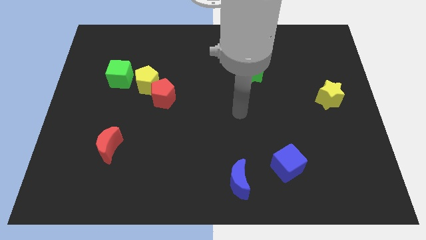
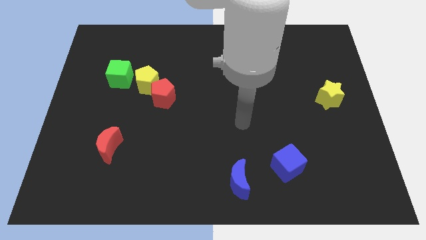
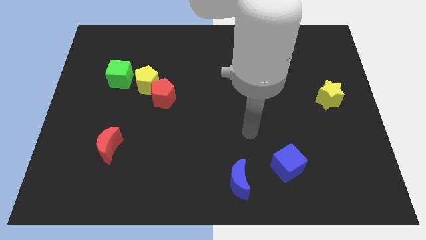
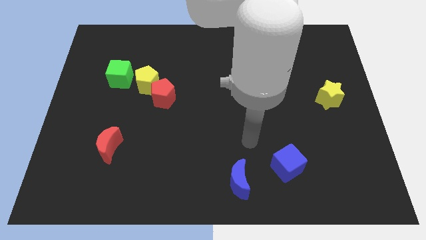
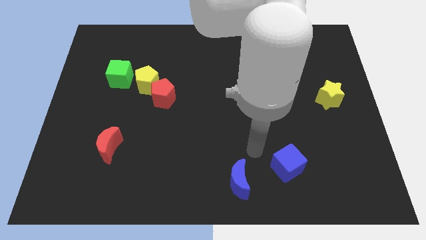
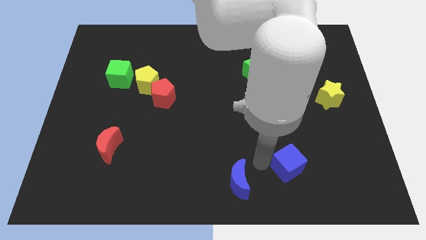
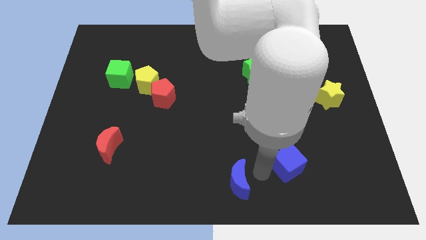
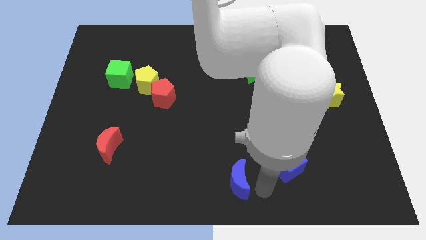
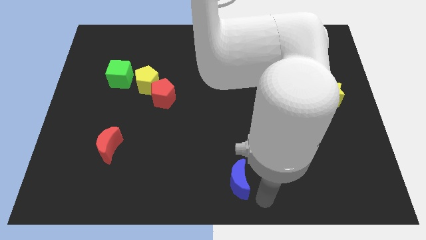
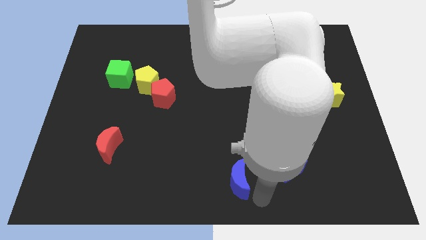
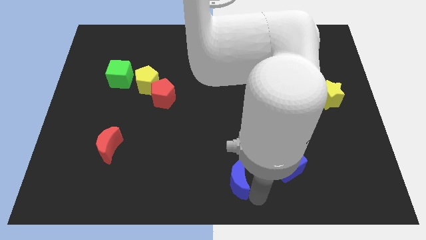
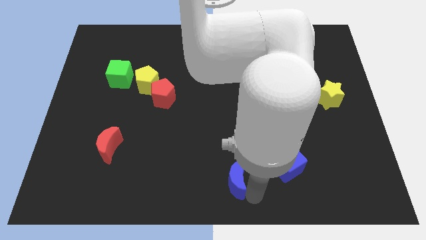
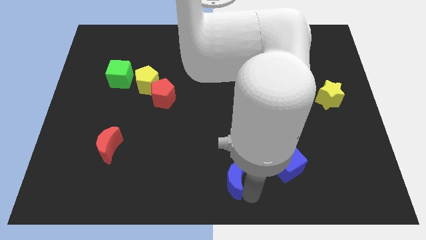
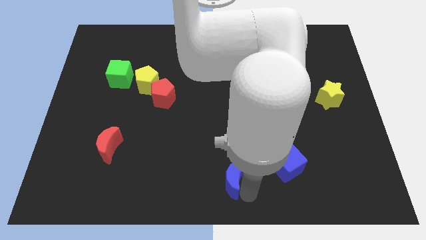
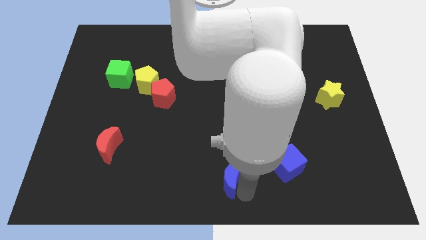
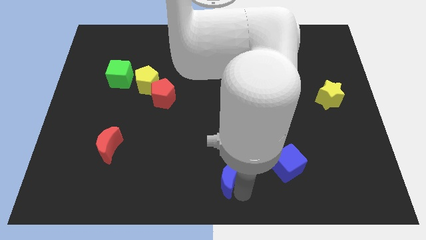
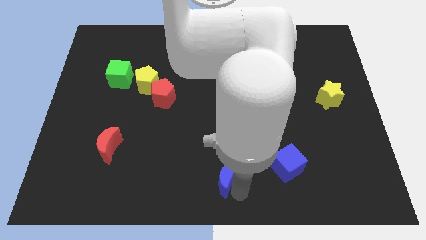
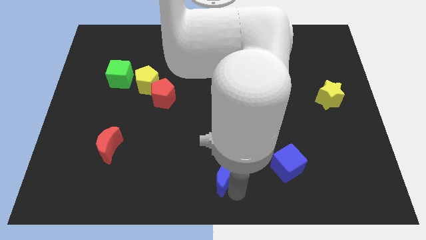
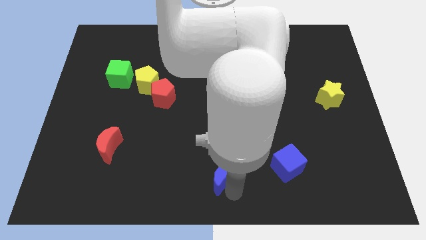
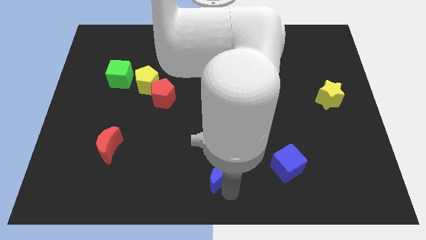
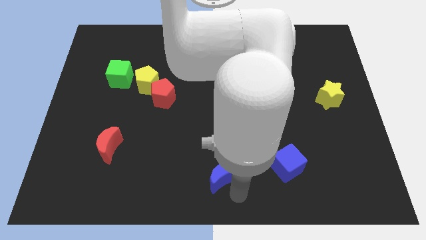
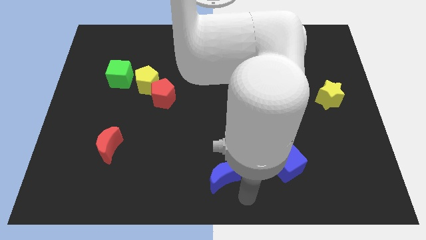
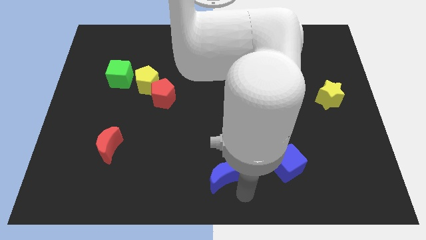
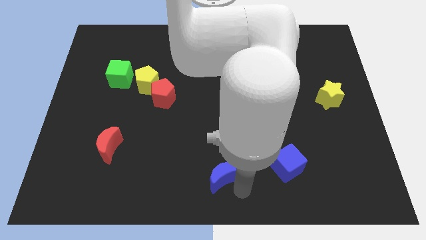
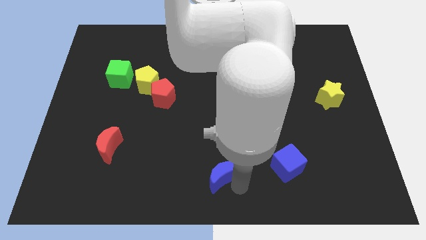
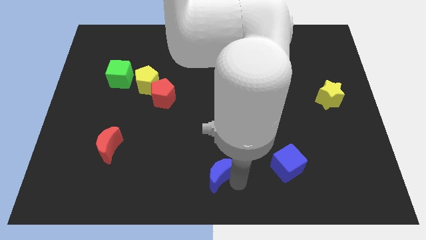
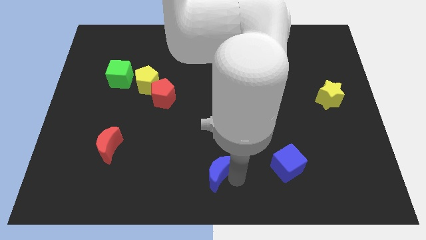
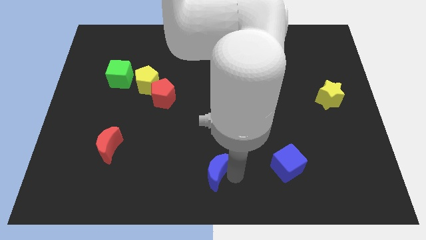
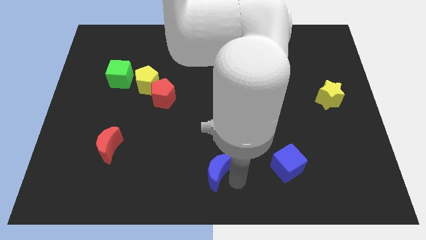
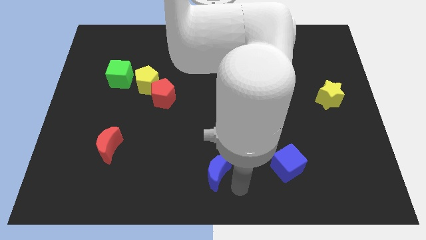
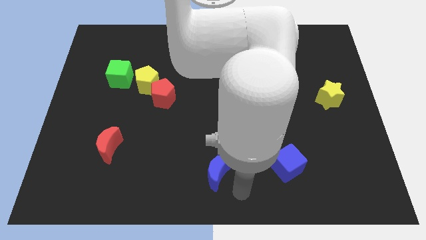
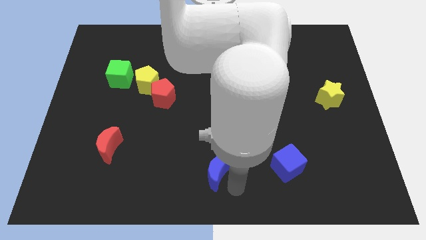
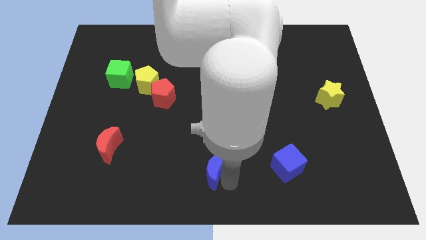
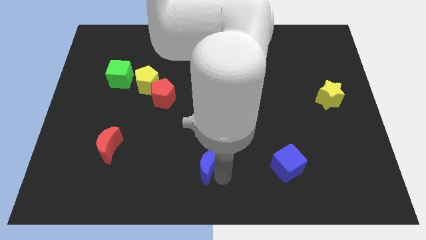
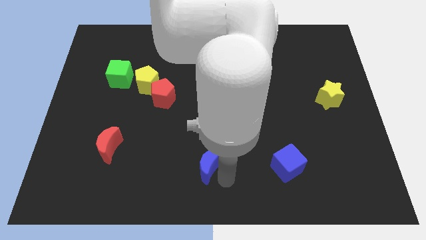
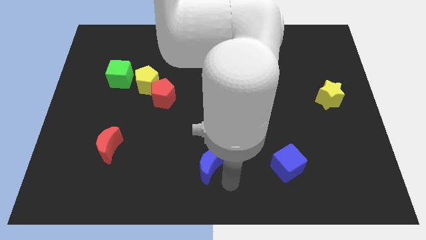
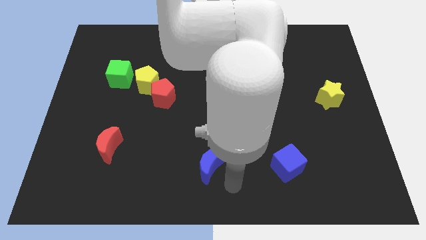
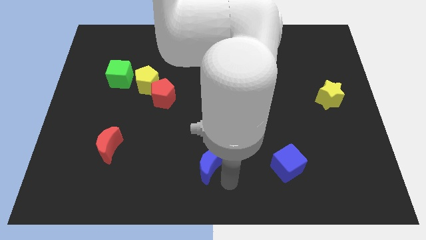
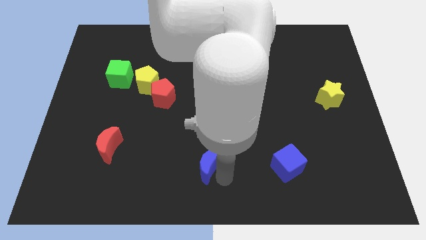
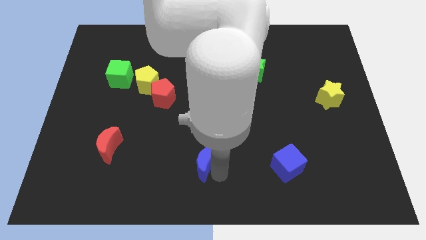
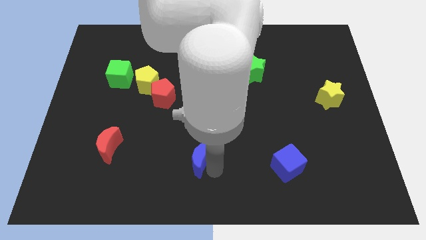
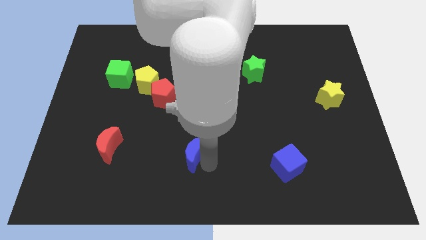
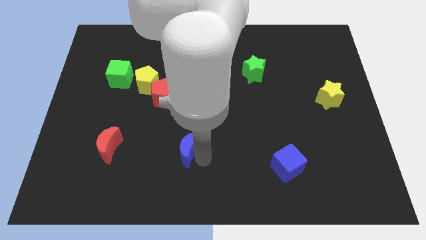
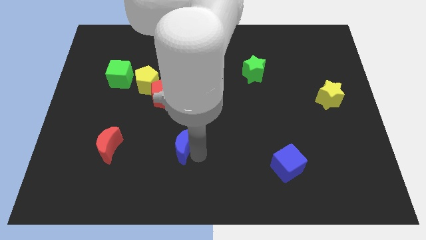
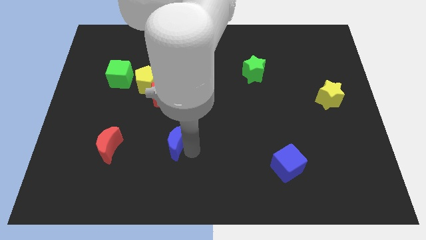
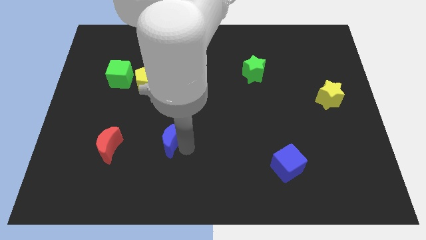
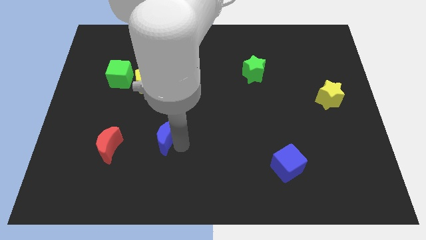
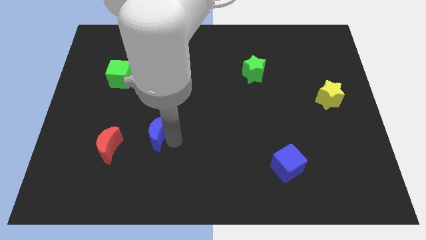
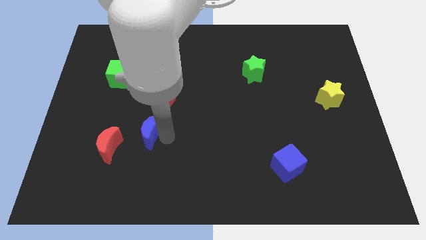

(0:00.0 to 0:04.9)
put the blue moon to the top right of the red moon

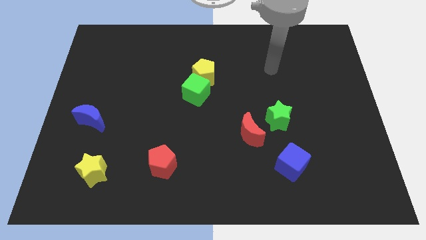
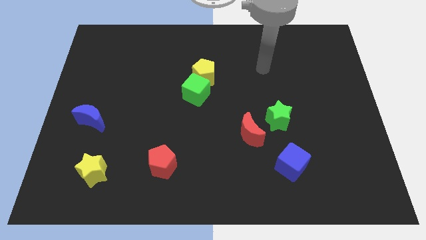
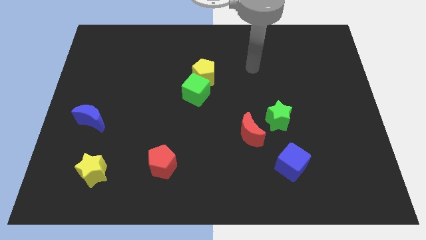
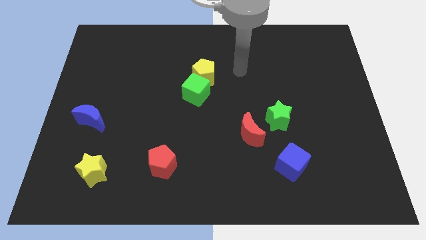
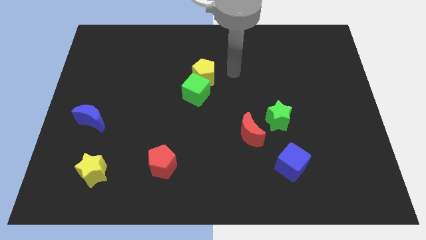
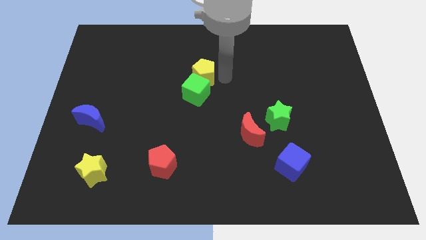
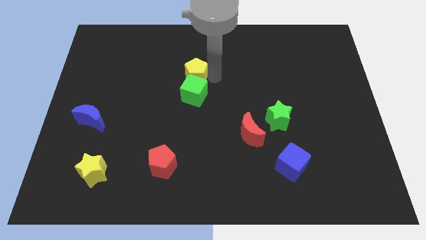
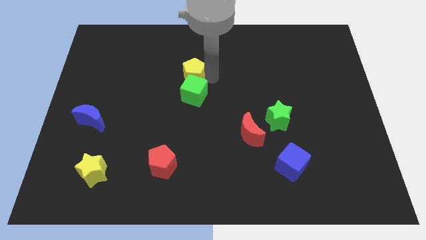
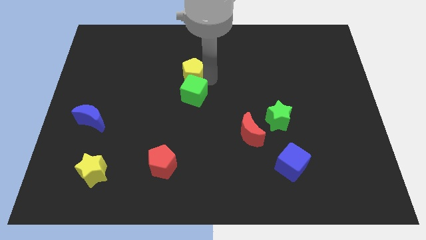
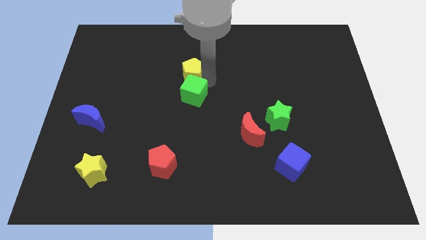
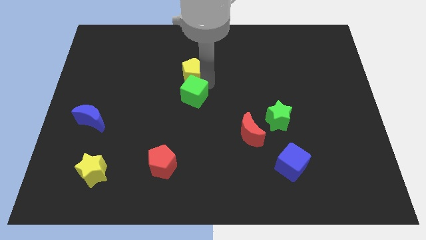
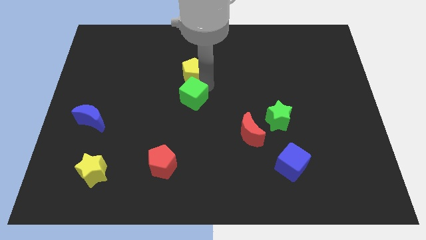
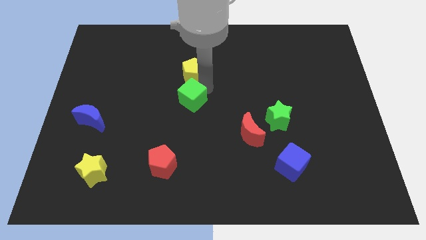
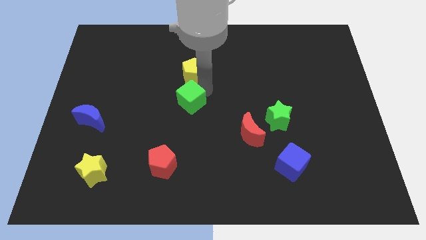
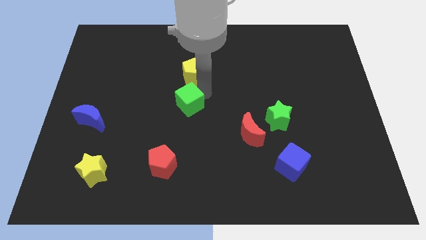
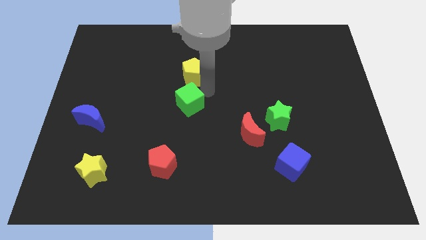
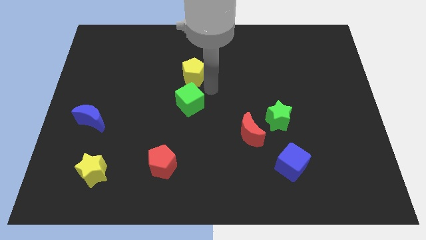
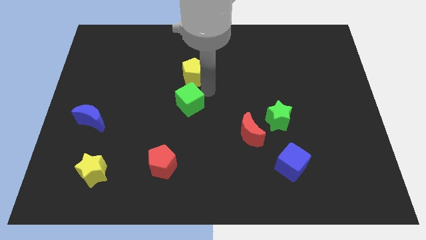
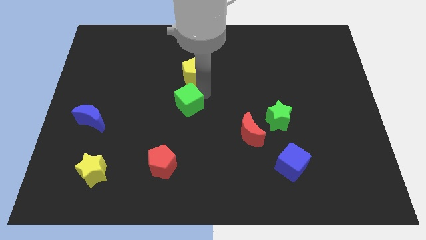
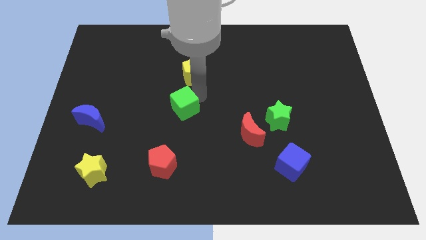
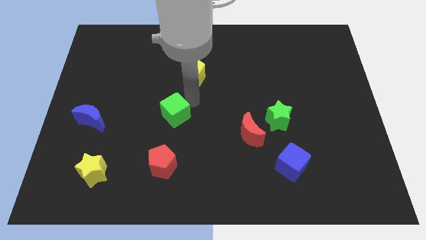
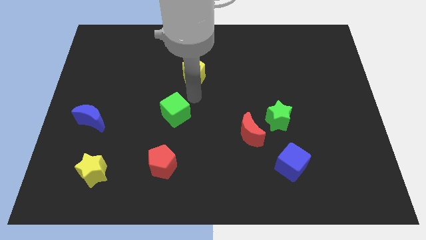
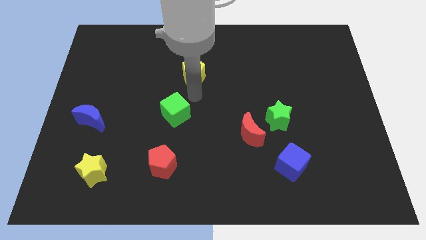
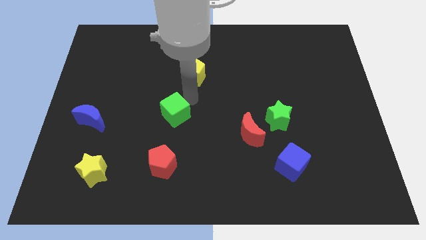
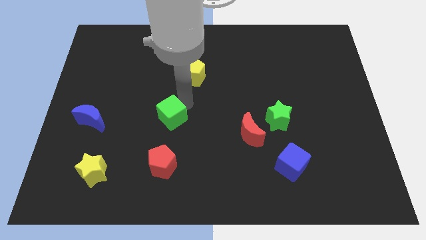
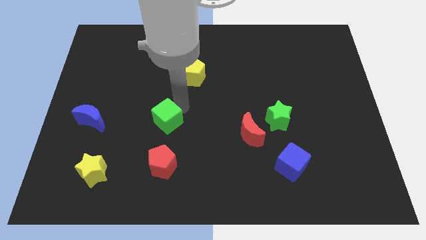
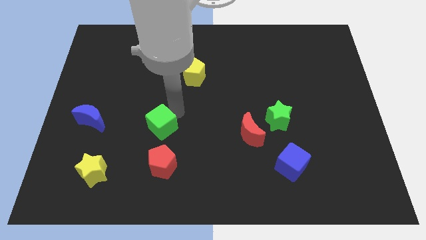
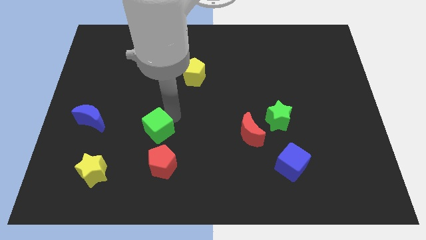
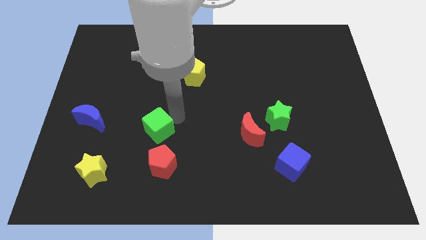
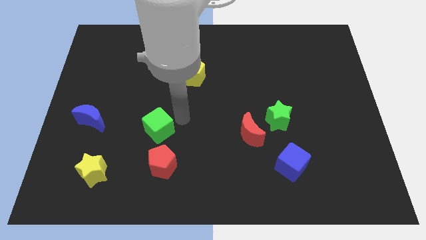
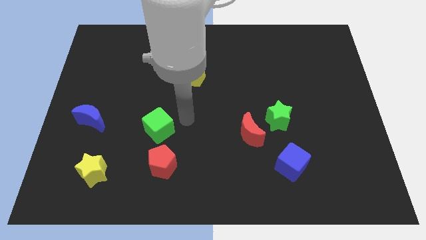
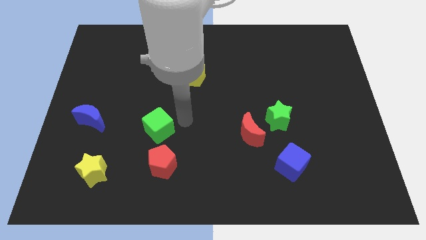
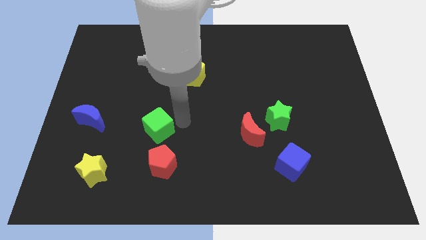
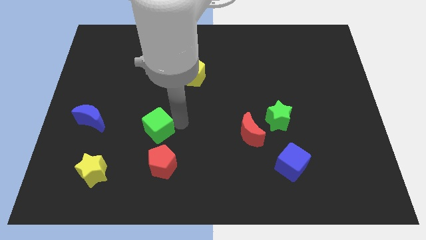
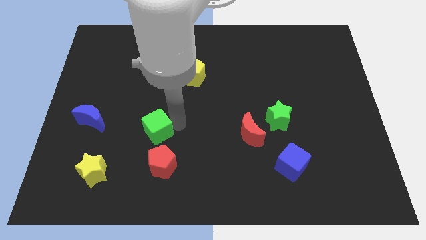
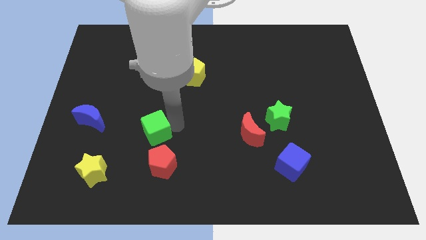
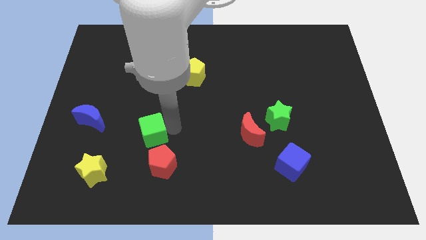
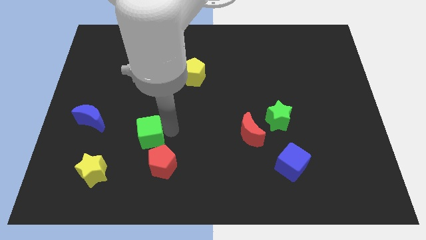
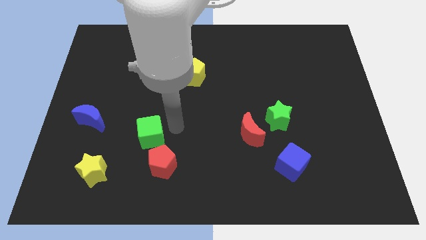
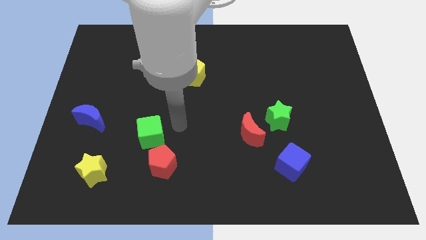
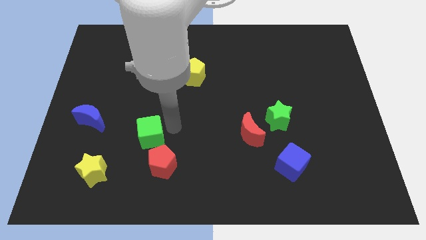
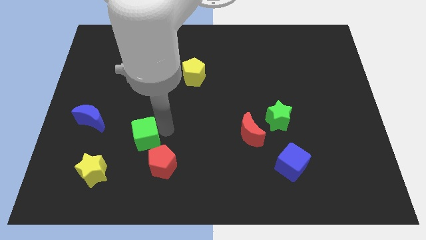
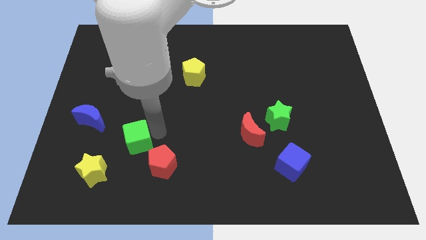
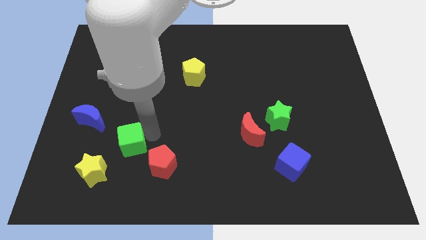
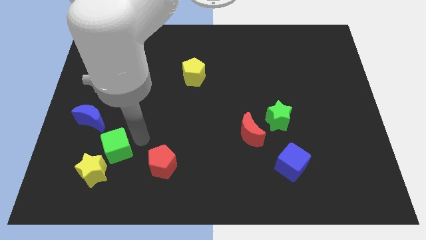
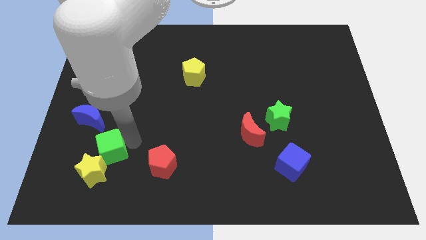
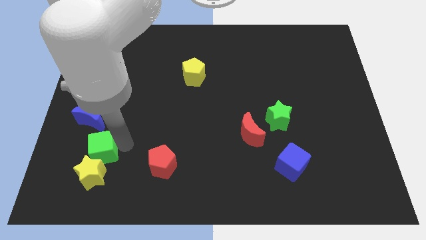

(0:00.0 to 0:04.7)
slide the green cube below the blue moon
